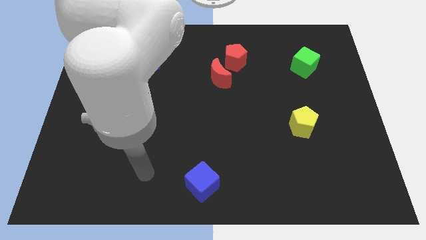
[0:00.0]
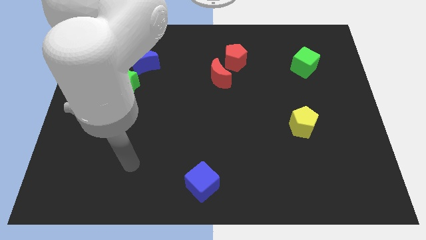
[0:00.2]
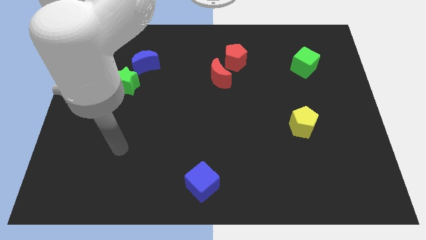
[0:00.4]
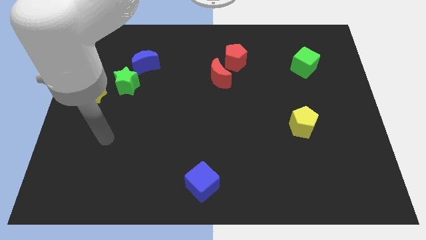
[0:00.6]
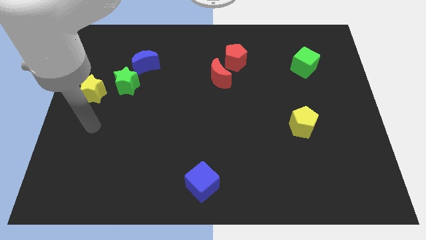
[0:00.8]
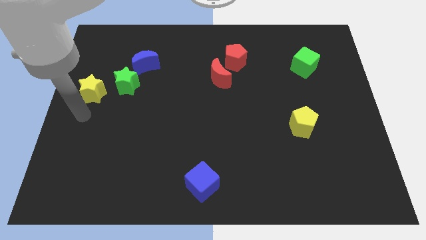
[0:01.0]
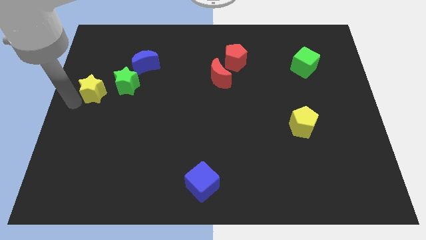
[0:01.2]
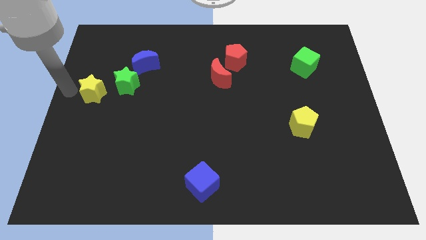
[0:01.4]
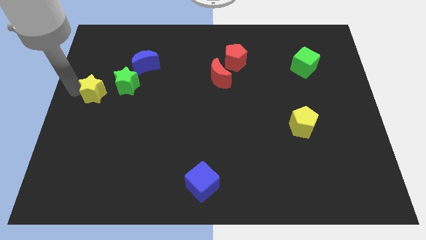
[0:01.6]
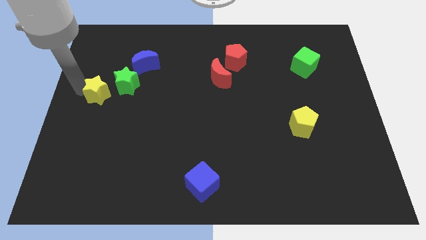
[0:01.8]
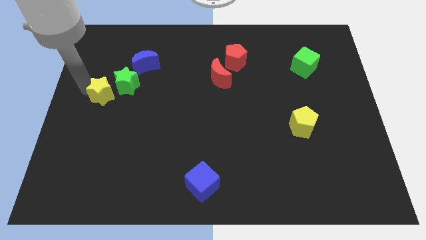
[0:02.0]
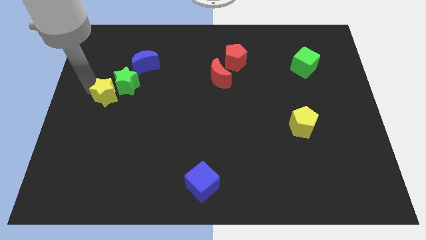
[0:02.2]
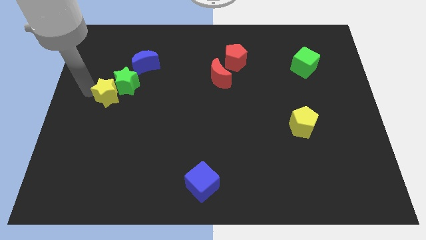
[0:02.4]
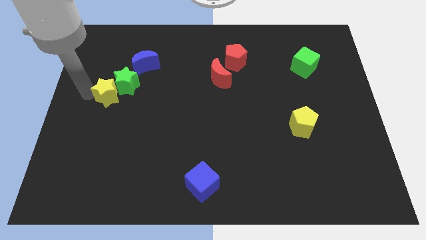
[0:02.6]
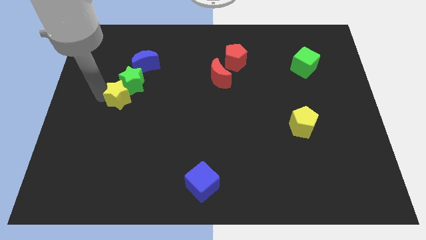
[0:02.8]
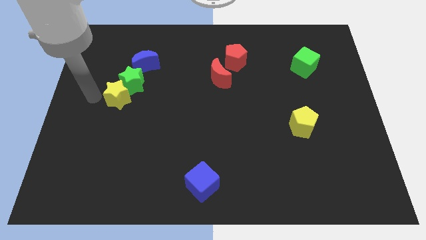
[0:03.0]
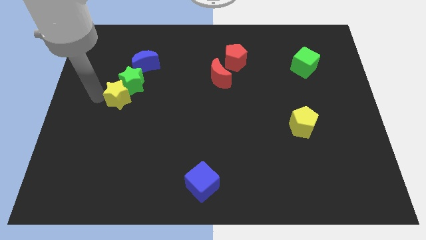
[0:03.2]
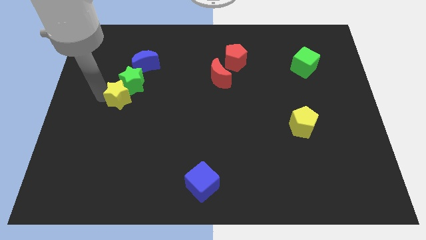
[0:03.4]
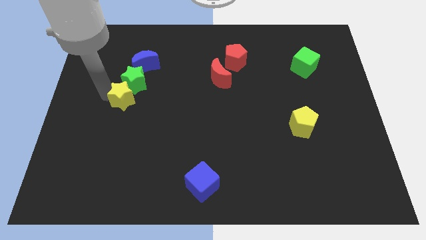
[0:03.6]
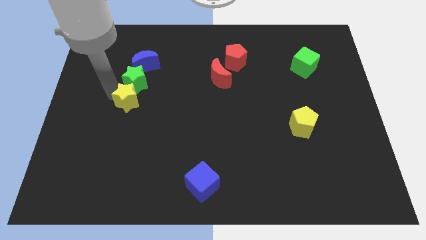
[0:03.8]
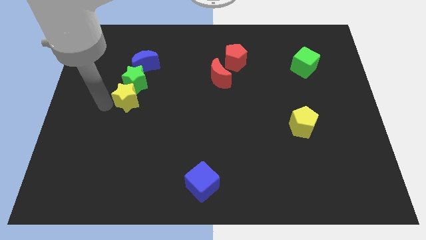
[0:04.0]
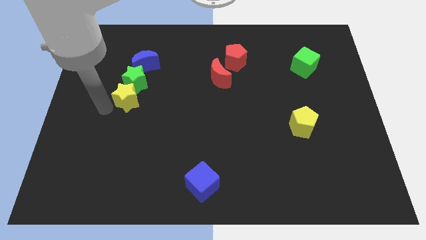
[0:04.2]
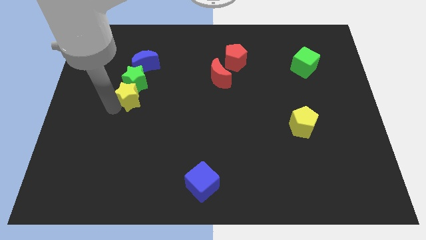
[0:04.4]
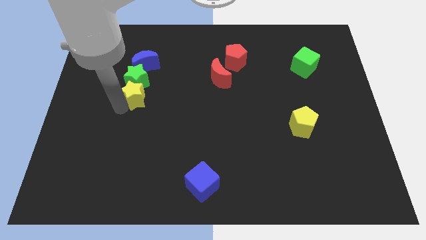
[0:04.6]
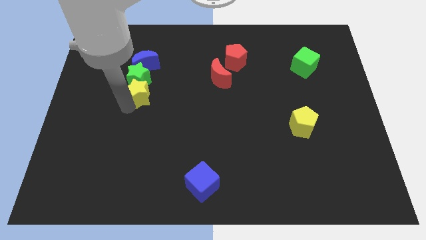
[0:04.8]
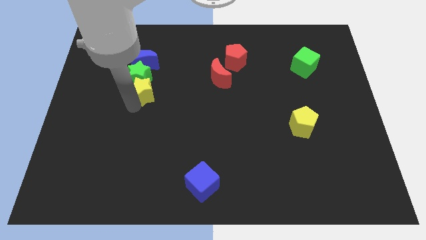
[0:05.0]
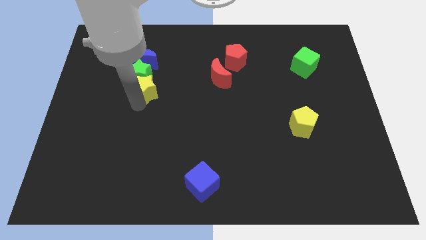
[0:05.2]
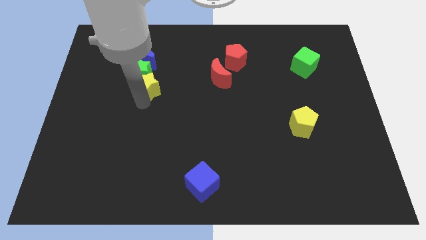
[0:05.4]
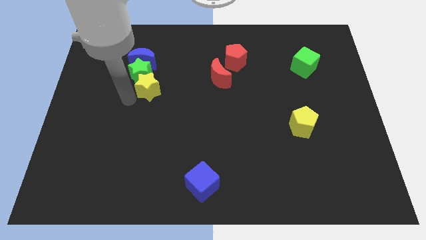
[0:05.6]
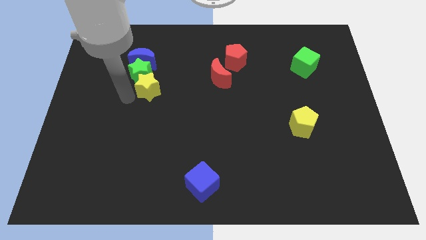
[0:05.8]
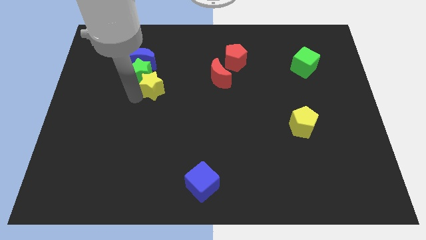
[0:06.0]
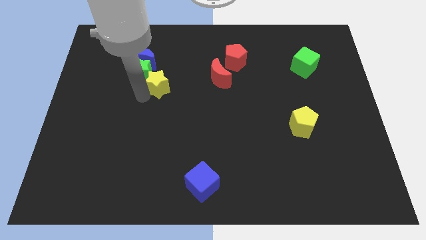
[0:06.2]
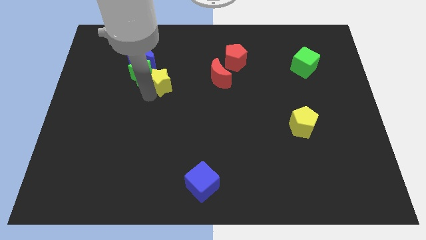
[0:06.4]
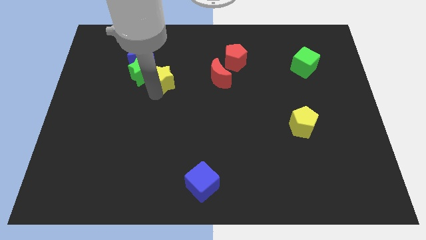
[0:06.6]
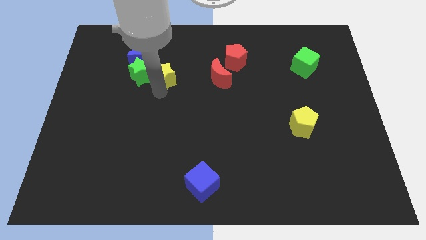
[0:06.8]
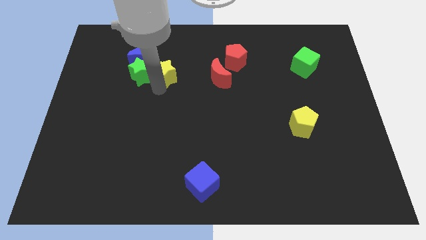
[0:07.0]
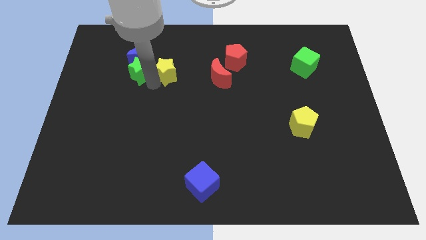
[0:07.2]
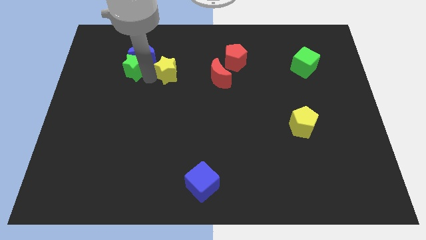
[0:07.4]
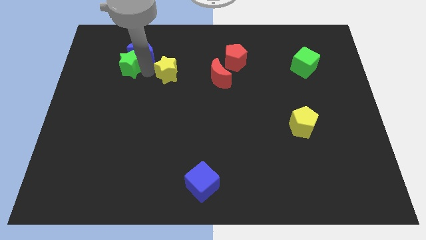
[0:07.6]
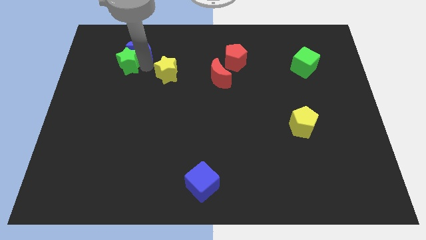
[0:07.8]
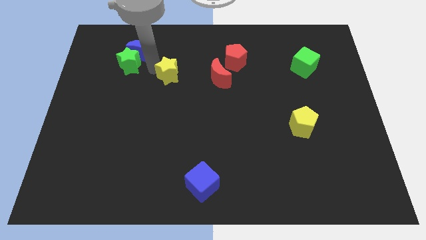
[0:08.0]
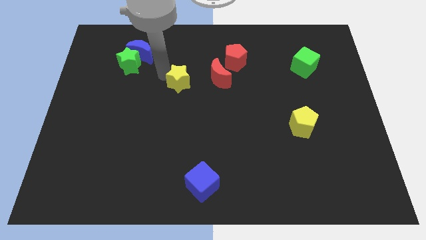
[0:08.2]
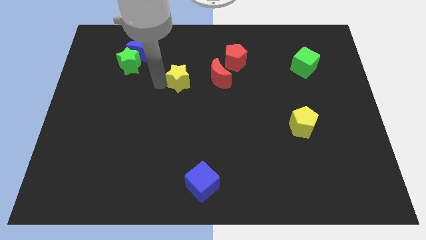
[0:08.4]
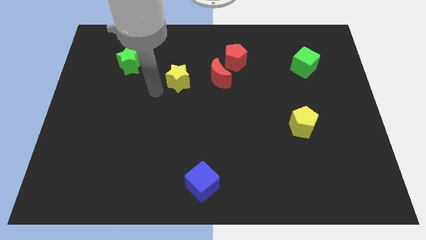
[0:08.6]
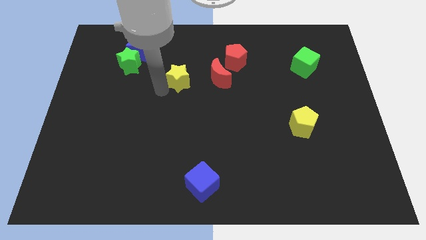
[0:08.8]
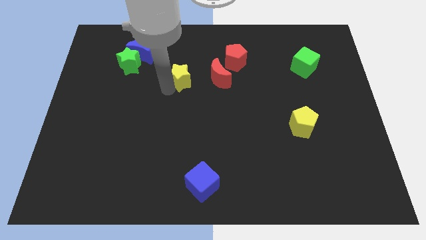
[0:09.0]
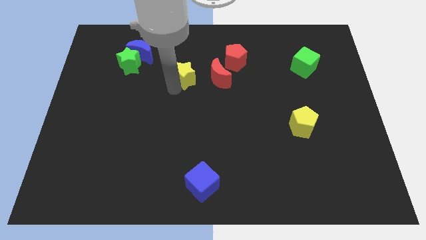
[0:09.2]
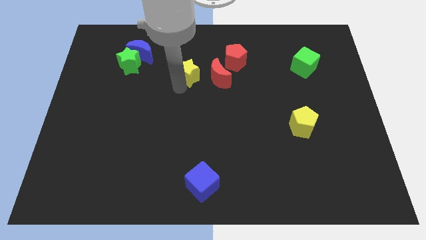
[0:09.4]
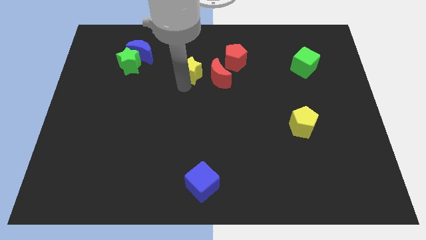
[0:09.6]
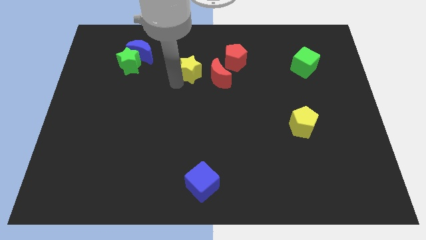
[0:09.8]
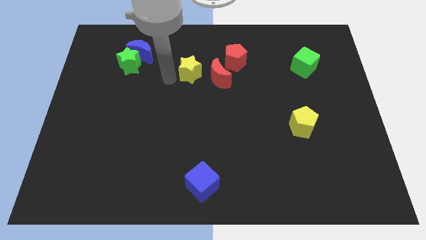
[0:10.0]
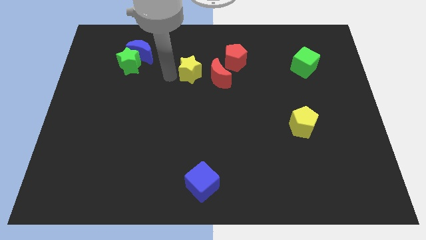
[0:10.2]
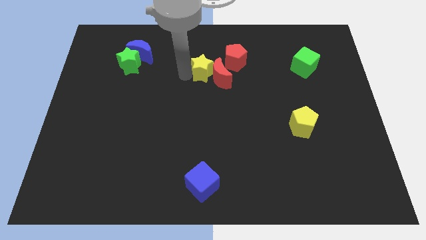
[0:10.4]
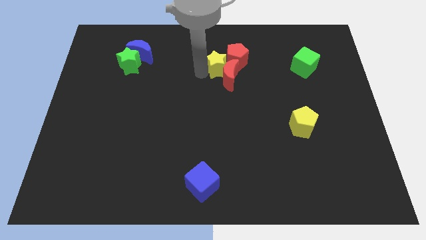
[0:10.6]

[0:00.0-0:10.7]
put the yellow star towards the red pentagon

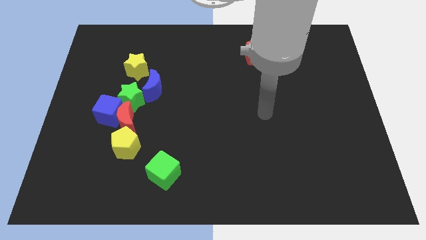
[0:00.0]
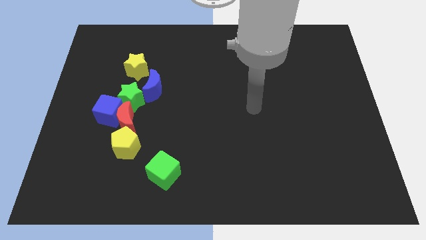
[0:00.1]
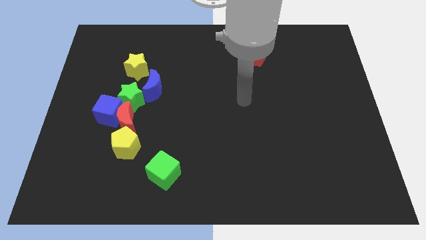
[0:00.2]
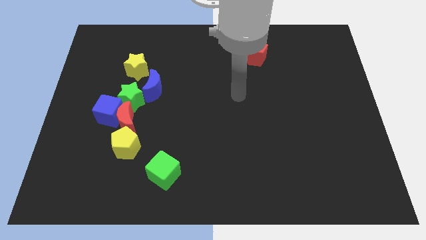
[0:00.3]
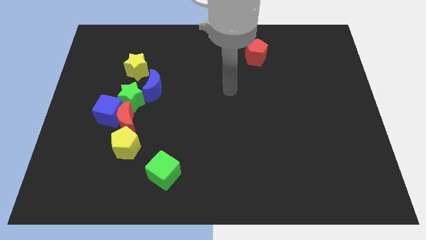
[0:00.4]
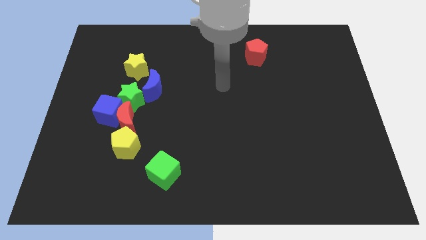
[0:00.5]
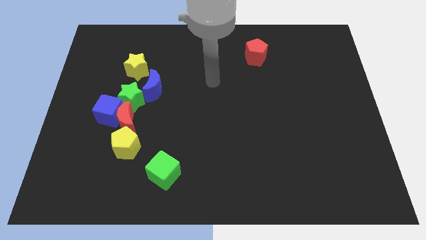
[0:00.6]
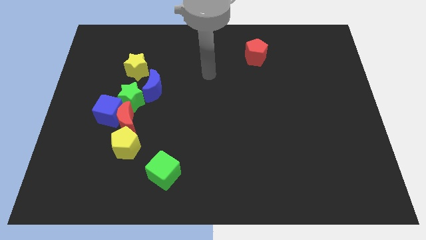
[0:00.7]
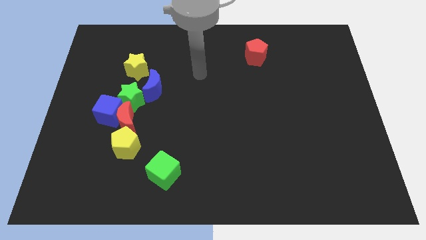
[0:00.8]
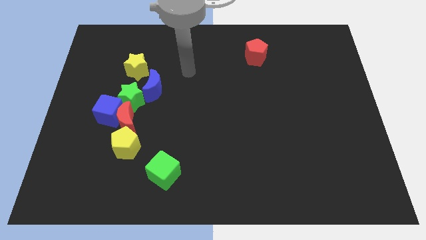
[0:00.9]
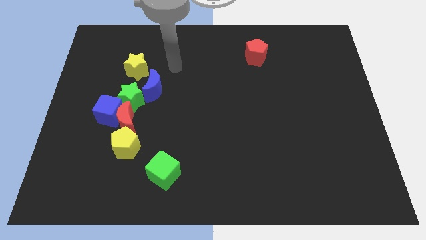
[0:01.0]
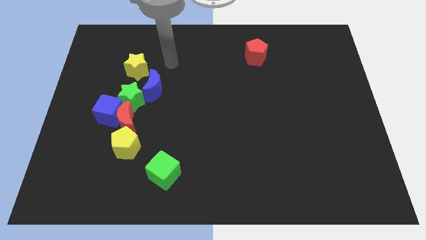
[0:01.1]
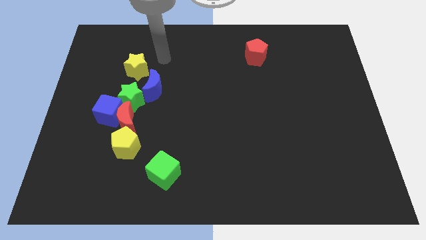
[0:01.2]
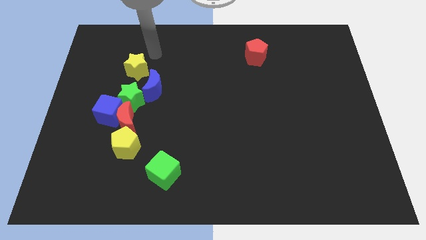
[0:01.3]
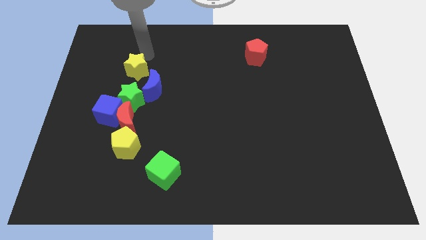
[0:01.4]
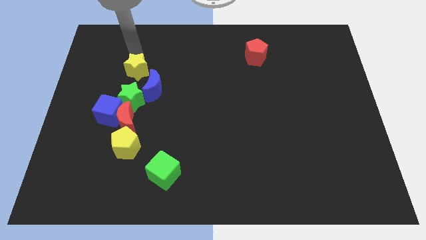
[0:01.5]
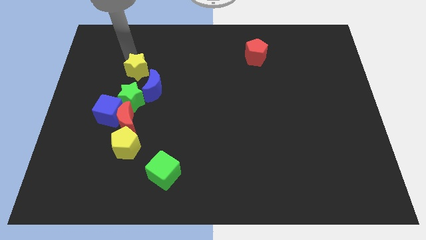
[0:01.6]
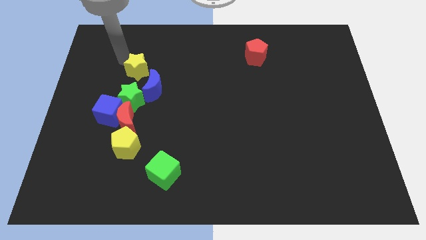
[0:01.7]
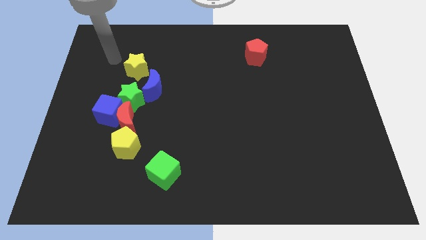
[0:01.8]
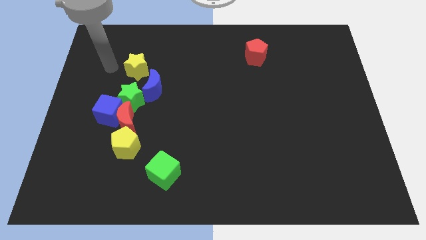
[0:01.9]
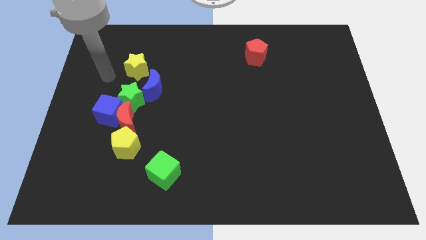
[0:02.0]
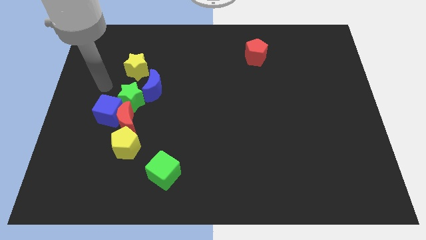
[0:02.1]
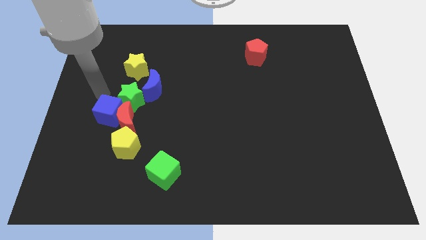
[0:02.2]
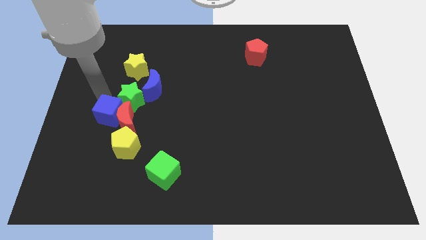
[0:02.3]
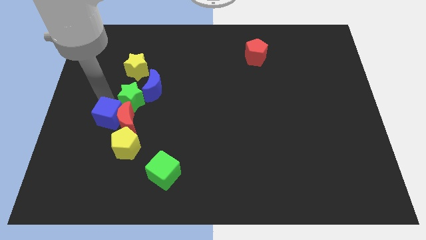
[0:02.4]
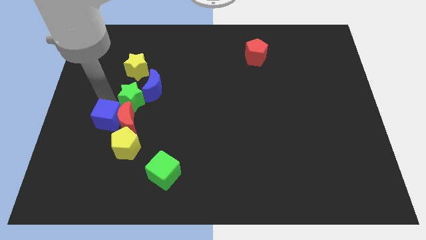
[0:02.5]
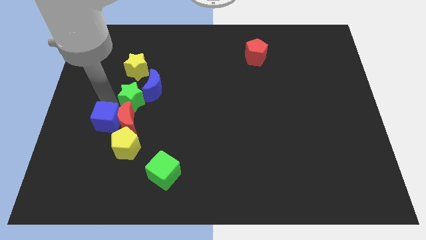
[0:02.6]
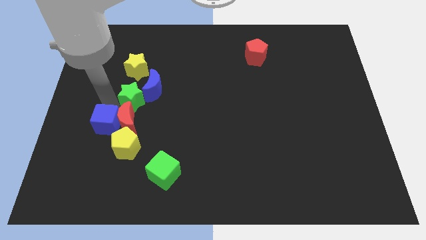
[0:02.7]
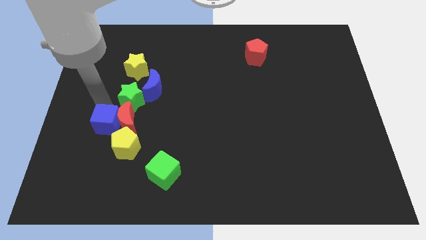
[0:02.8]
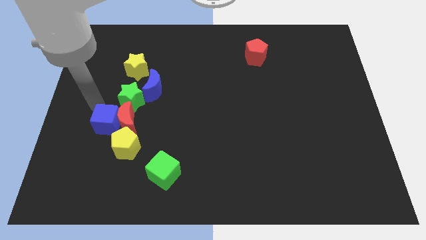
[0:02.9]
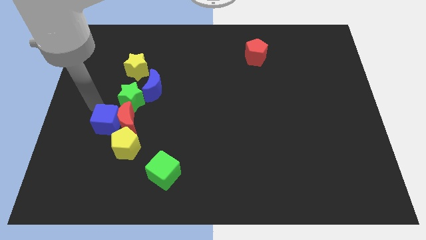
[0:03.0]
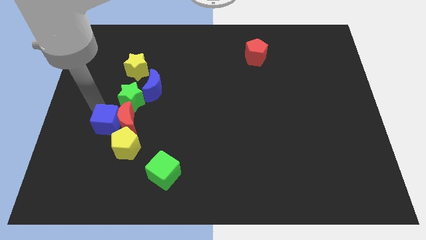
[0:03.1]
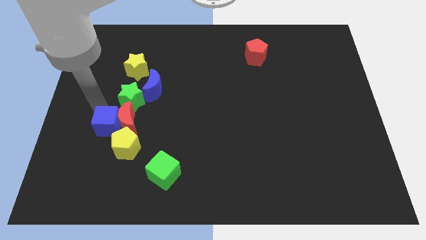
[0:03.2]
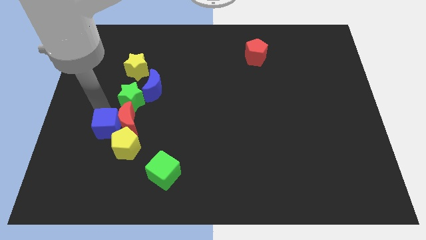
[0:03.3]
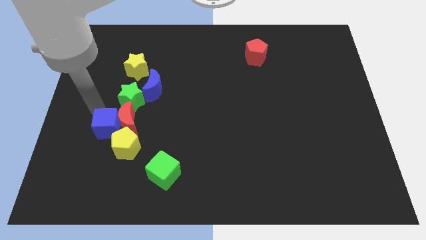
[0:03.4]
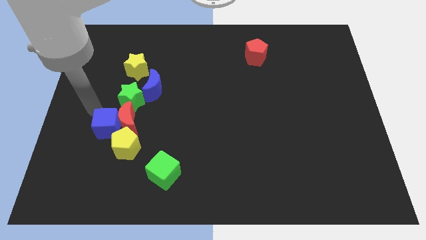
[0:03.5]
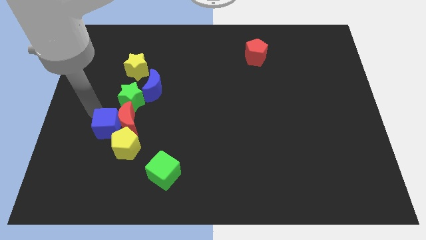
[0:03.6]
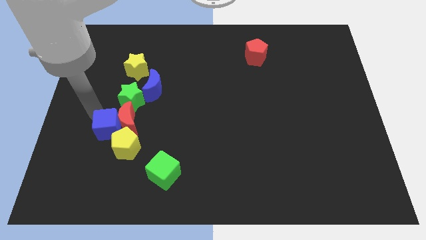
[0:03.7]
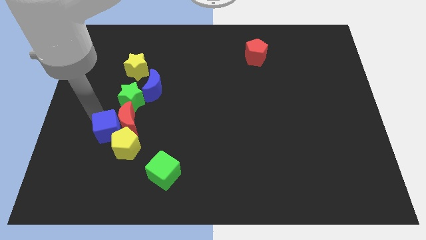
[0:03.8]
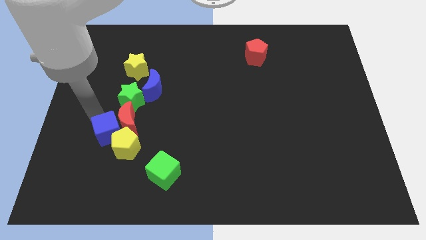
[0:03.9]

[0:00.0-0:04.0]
slide the blue cube next to the yellow pentagon
